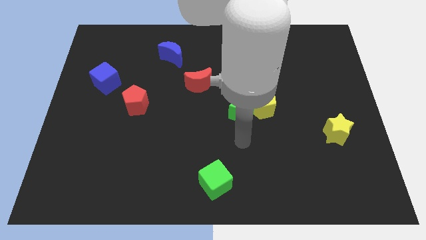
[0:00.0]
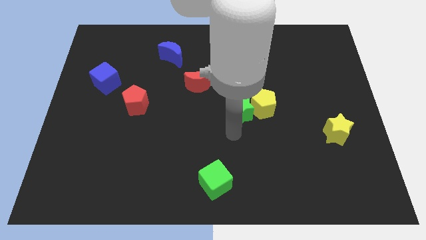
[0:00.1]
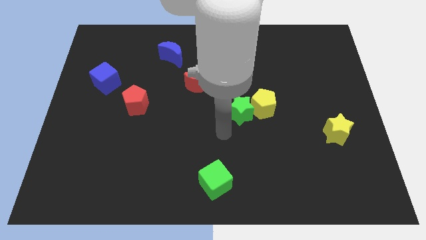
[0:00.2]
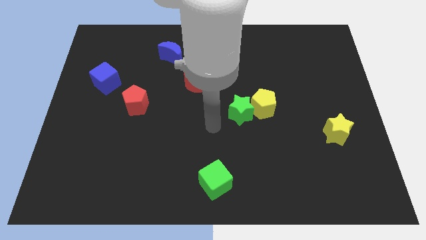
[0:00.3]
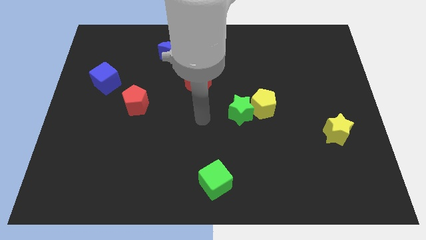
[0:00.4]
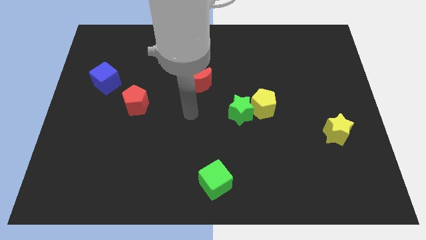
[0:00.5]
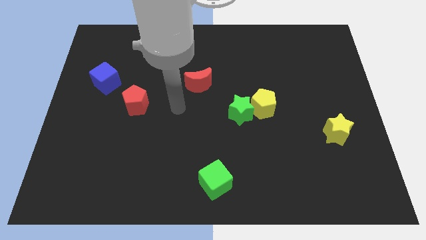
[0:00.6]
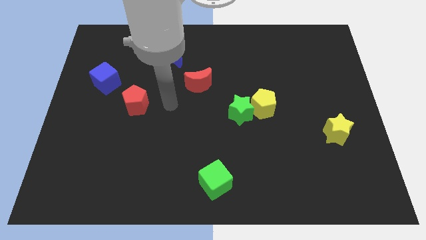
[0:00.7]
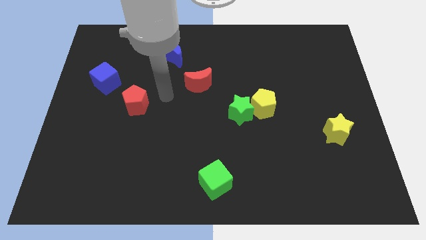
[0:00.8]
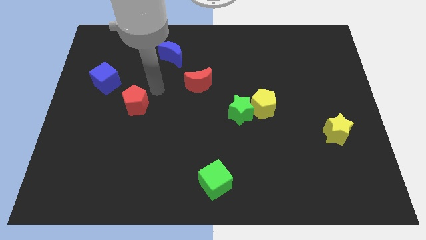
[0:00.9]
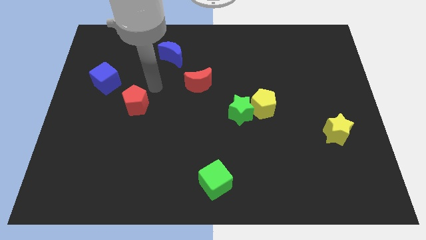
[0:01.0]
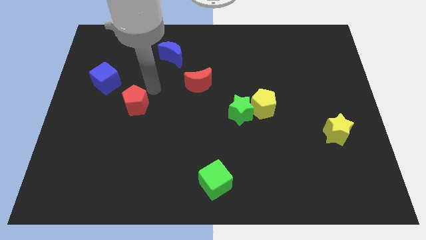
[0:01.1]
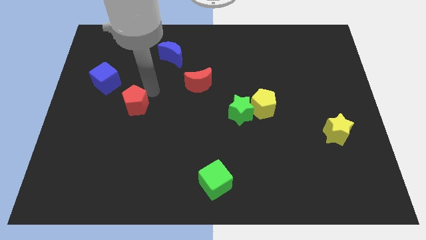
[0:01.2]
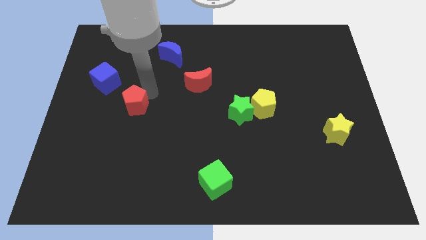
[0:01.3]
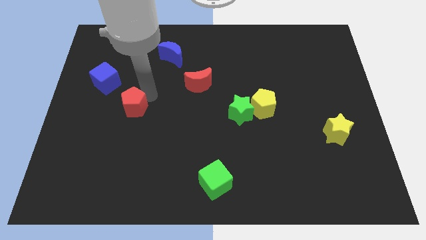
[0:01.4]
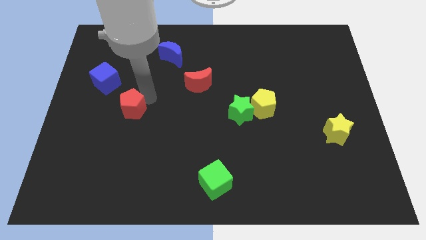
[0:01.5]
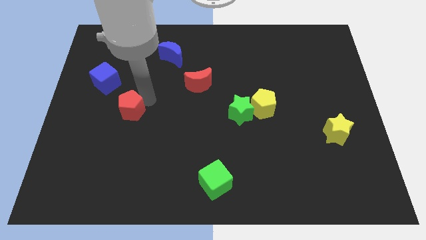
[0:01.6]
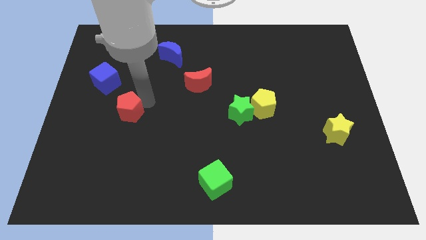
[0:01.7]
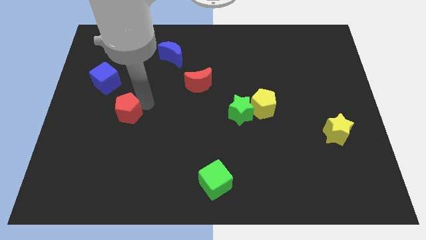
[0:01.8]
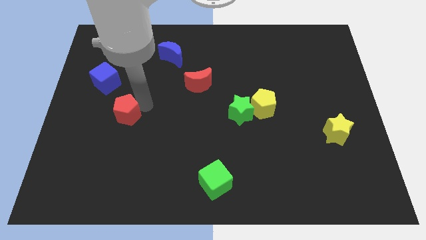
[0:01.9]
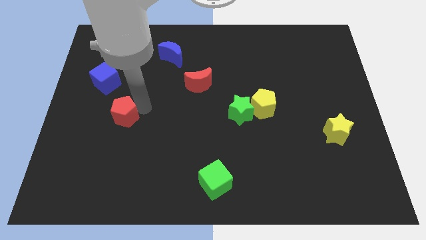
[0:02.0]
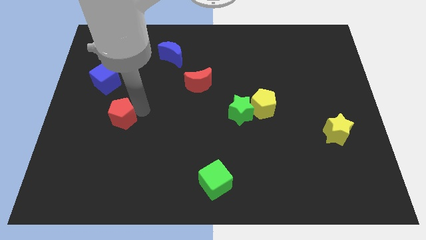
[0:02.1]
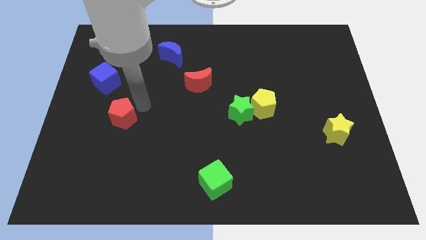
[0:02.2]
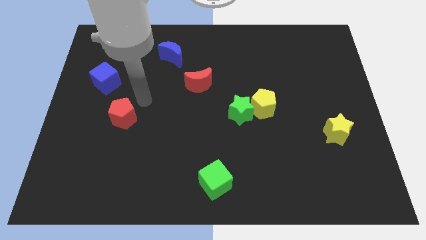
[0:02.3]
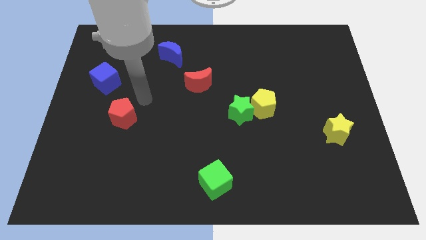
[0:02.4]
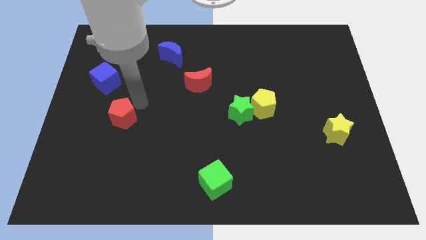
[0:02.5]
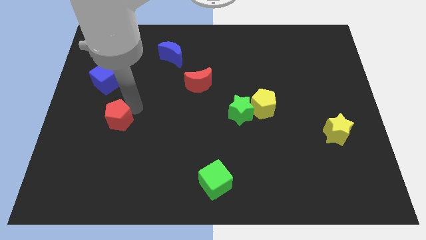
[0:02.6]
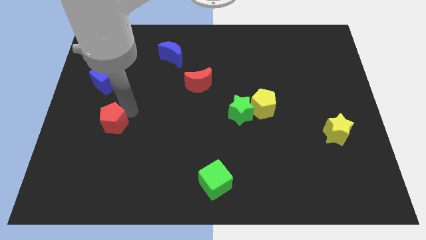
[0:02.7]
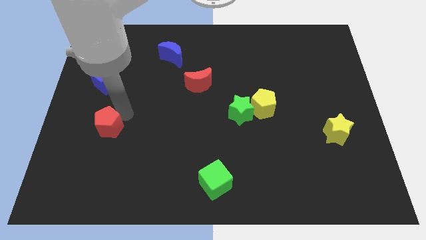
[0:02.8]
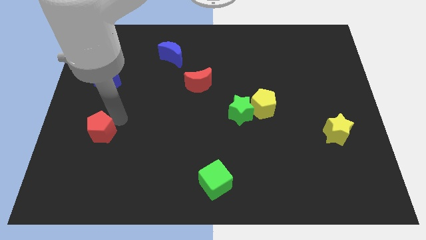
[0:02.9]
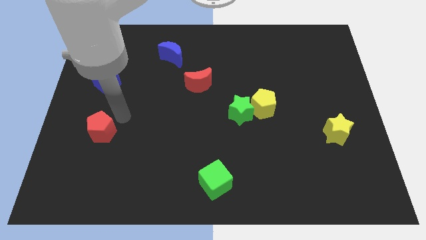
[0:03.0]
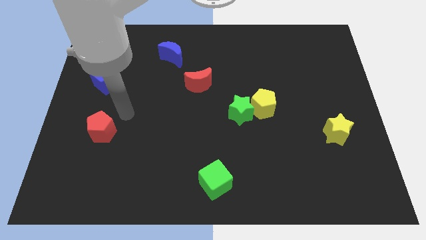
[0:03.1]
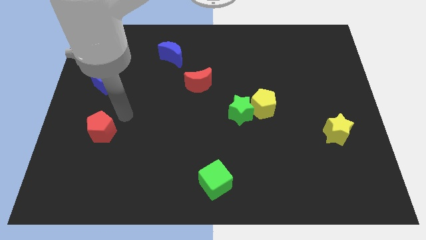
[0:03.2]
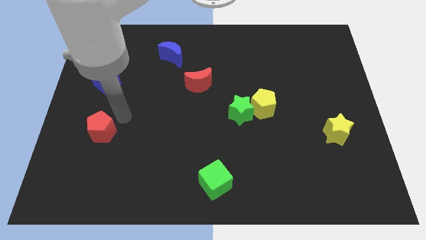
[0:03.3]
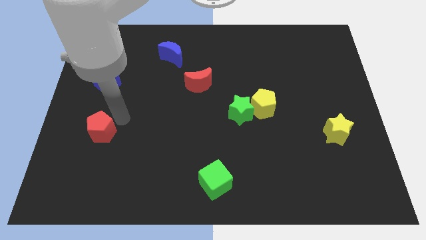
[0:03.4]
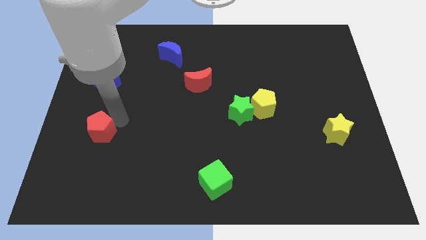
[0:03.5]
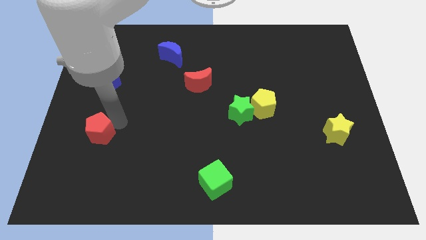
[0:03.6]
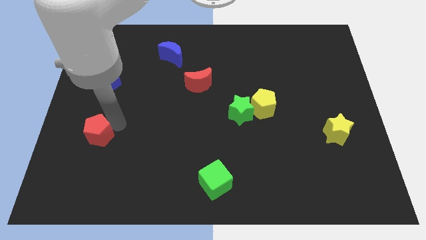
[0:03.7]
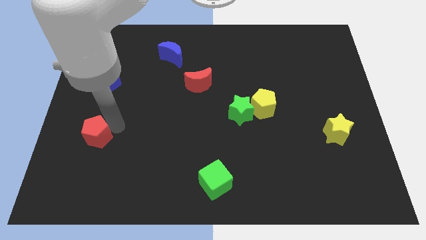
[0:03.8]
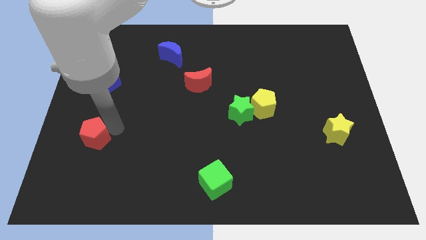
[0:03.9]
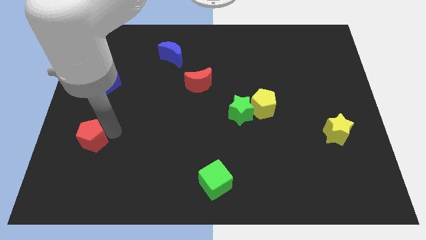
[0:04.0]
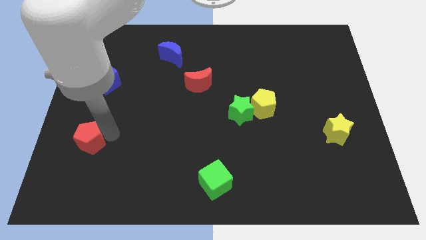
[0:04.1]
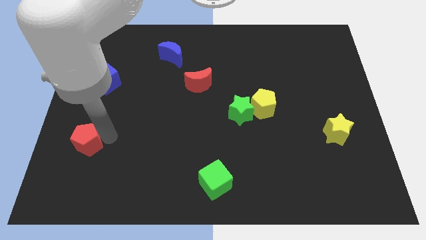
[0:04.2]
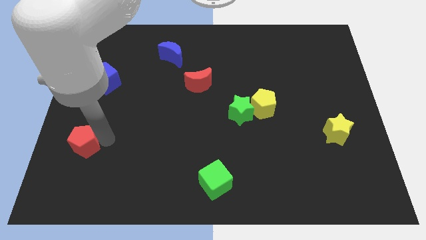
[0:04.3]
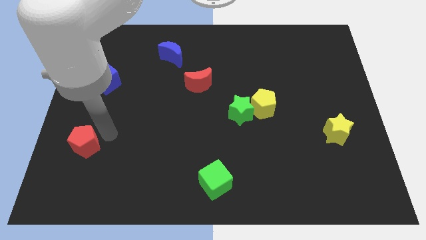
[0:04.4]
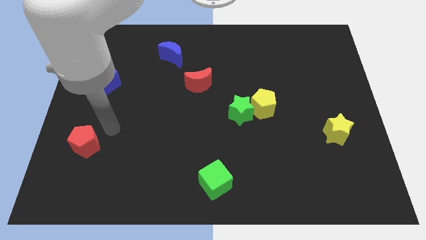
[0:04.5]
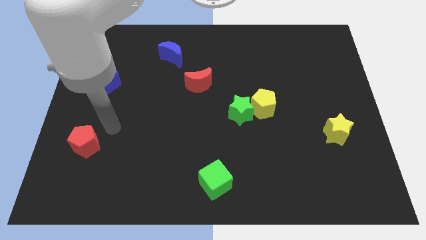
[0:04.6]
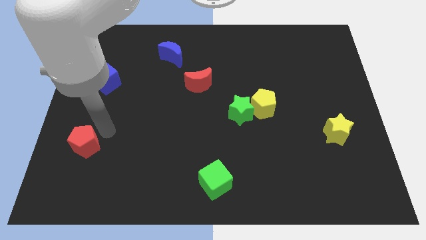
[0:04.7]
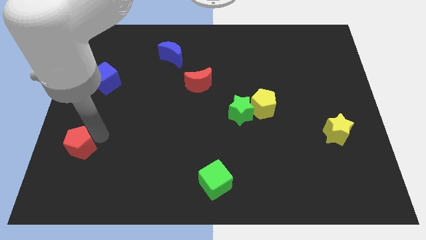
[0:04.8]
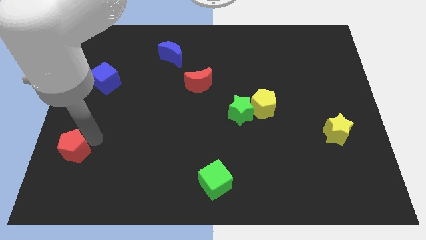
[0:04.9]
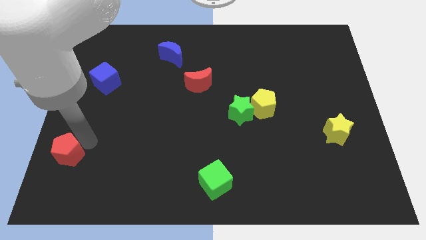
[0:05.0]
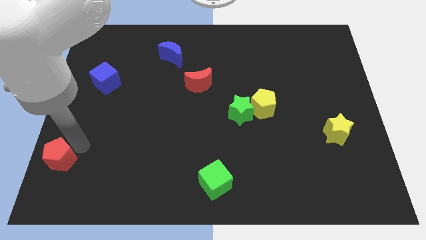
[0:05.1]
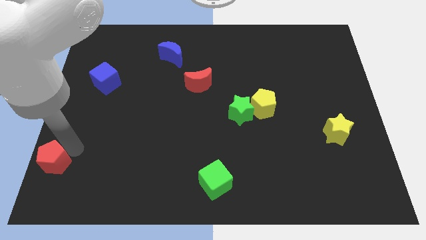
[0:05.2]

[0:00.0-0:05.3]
slide the red pentagon to the lower left corner
